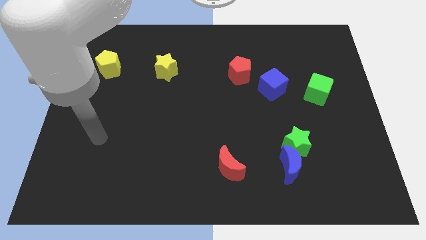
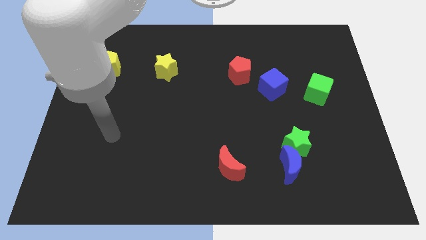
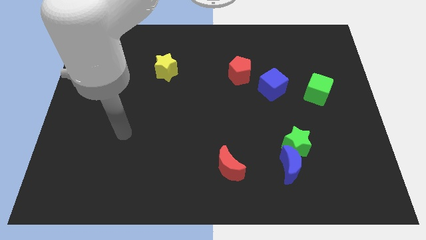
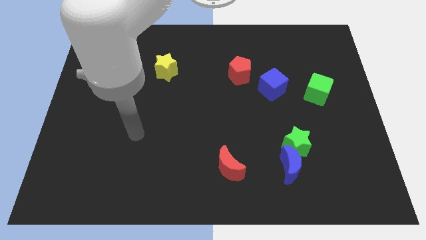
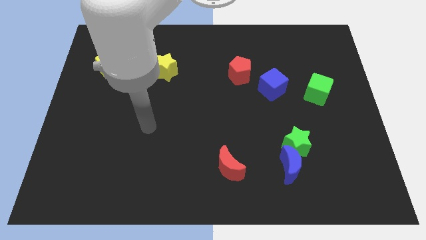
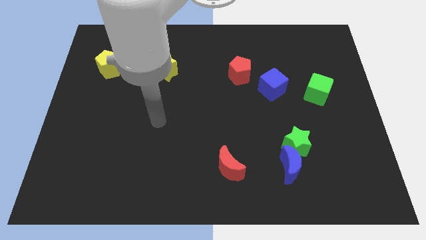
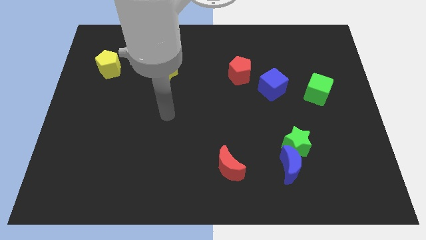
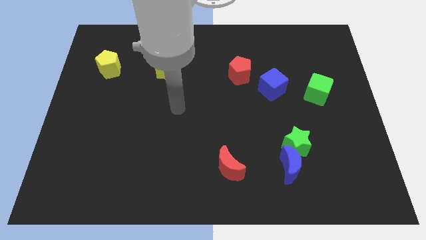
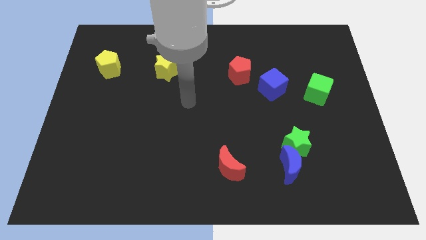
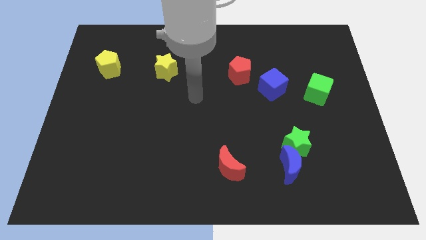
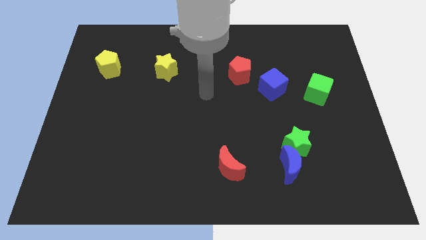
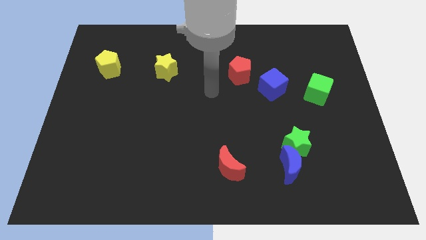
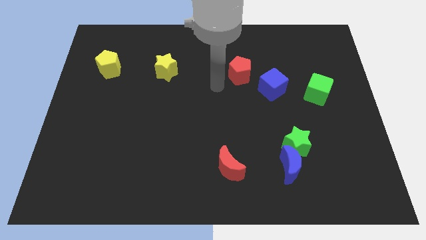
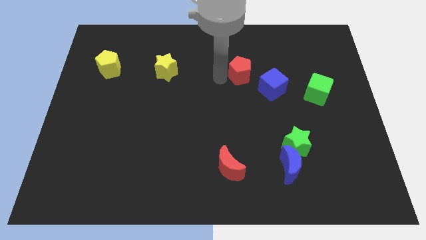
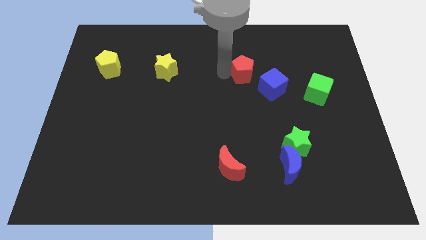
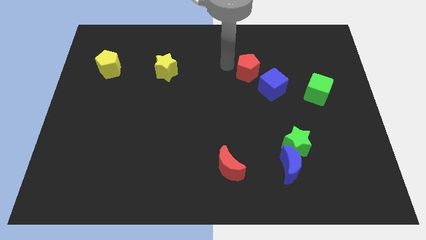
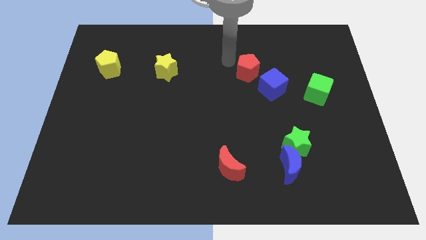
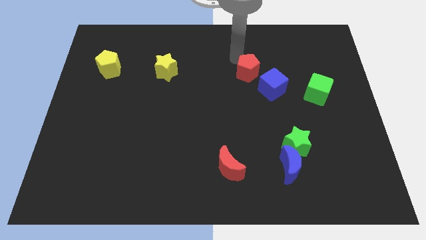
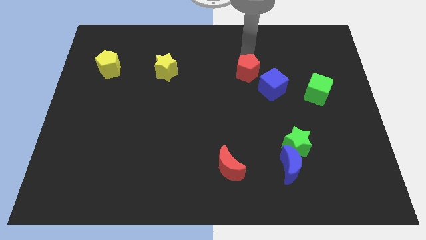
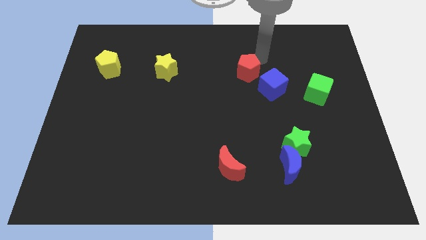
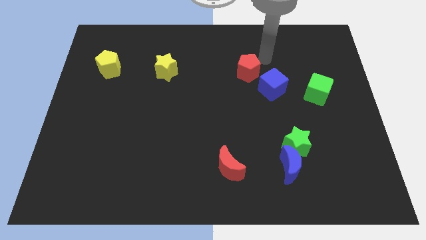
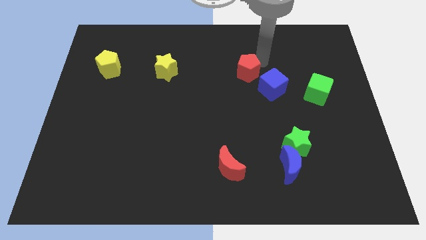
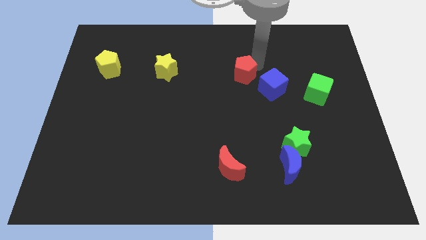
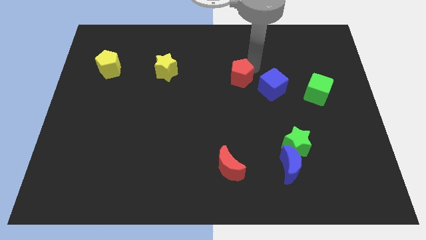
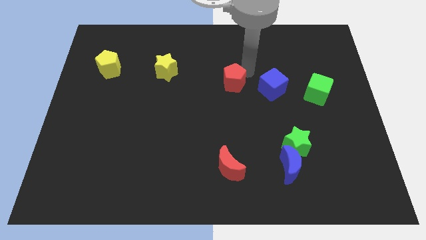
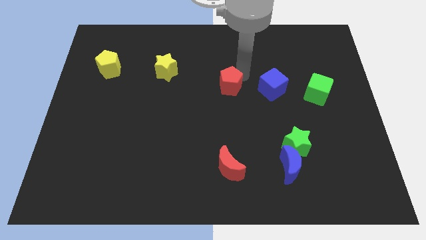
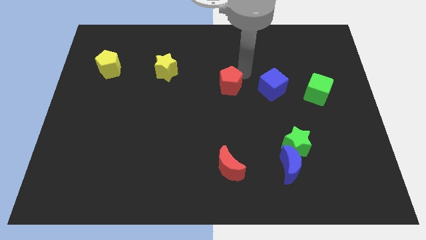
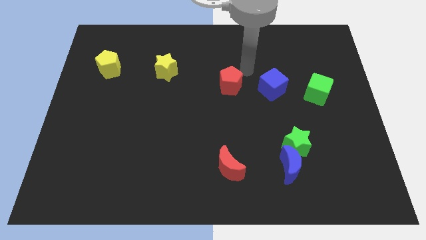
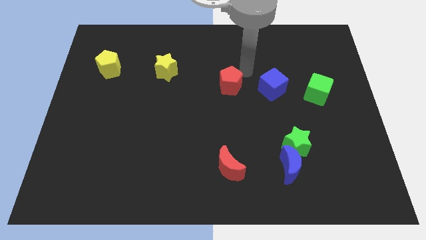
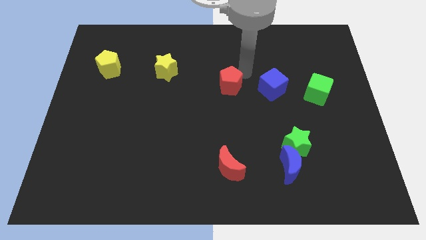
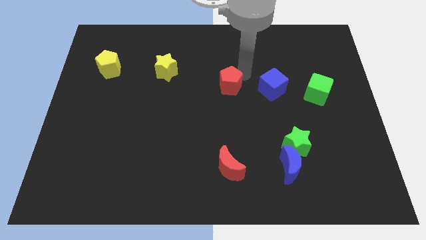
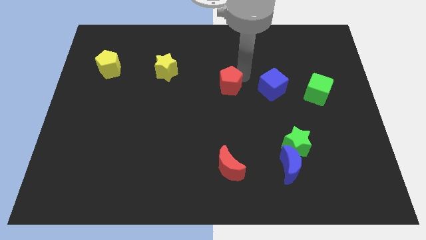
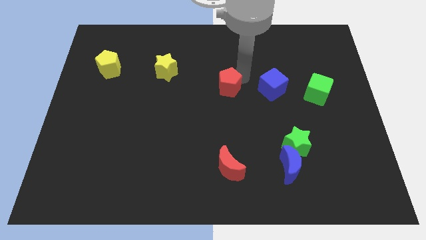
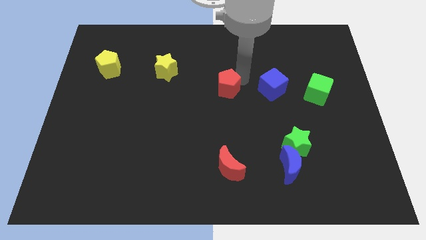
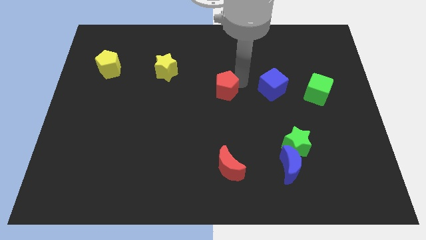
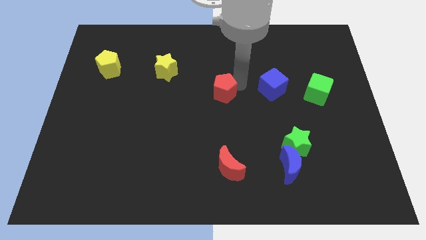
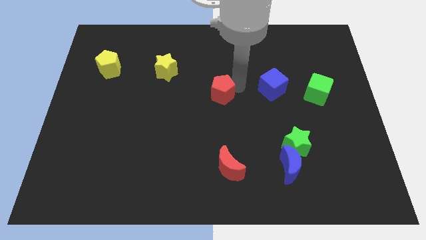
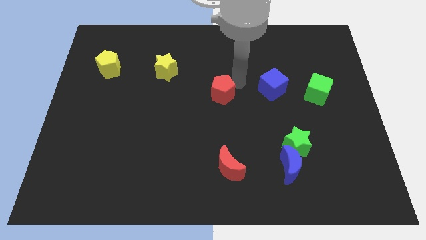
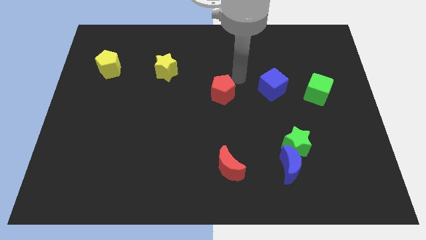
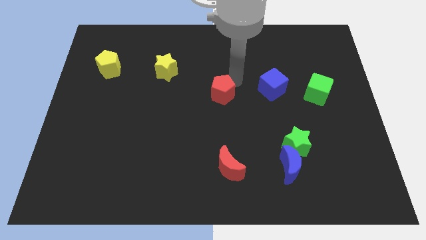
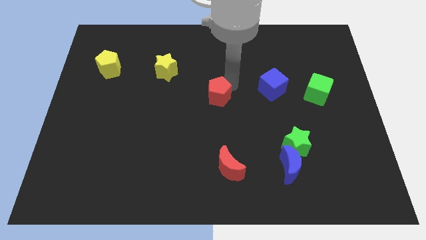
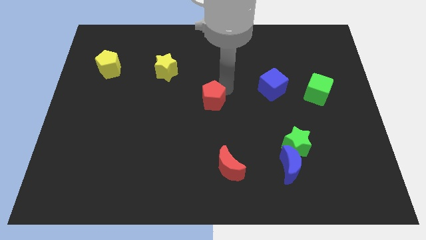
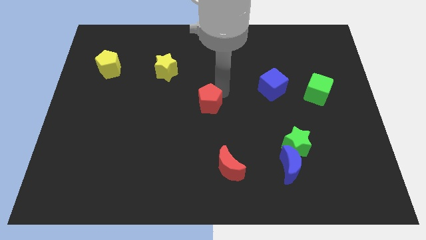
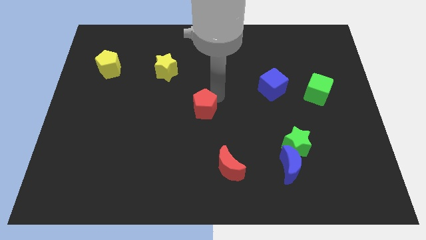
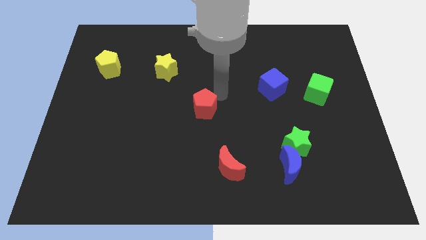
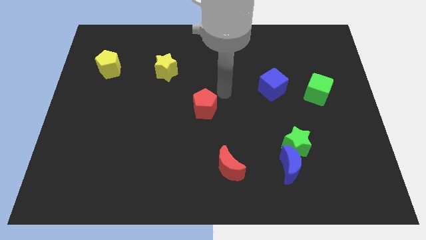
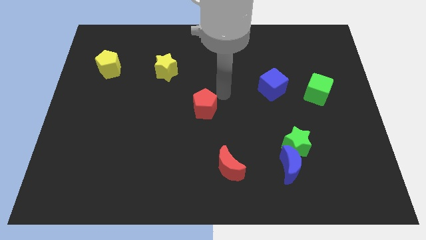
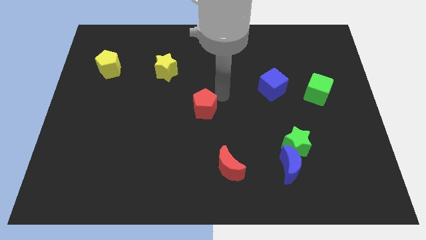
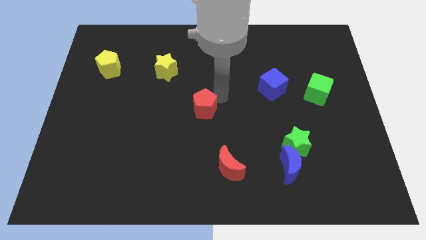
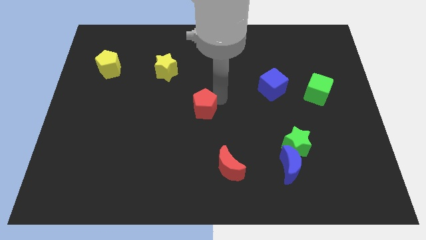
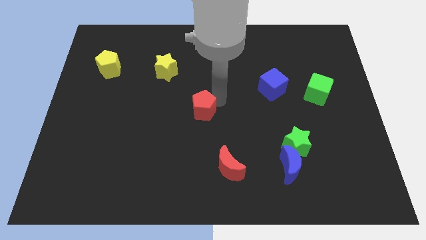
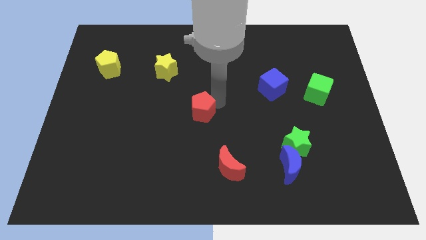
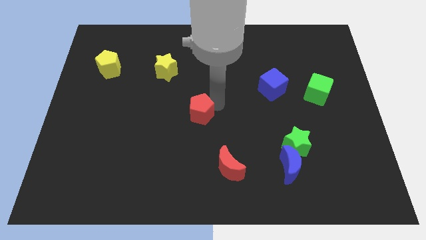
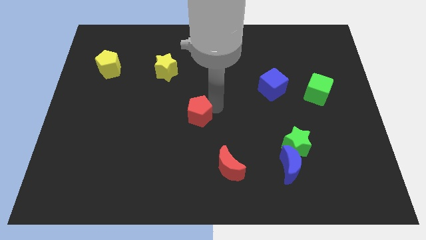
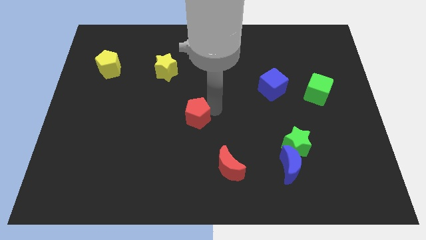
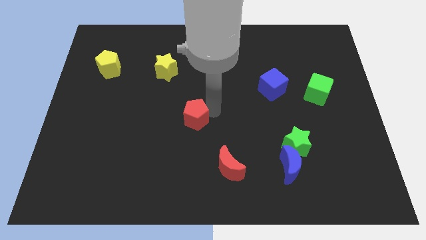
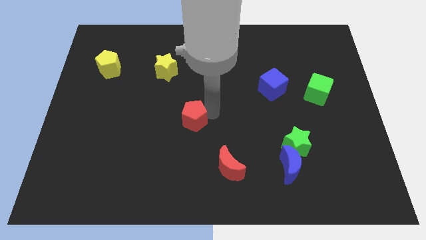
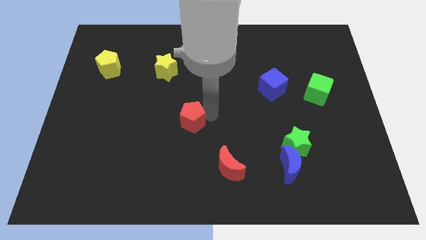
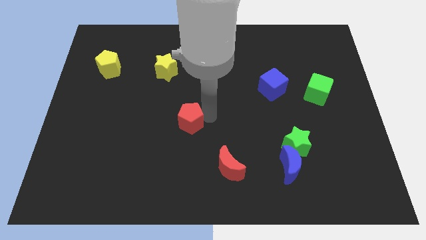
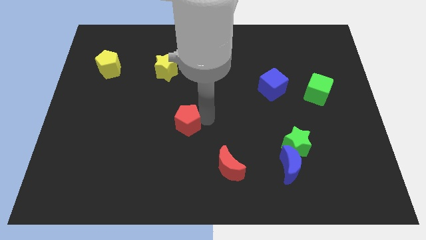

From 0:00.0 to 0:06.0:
move the red pentagon downwards and to the left diagonally

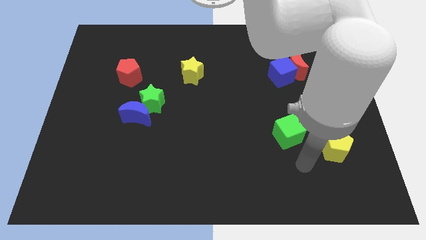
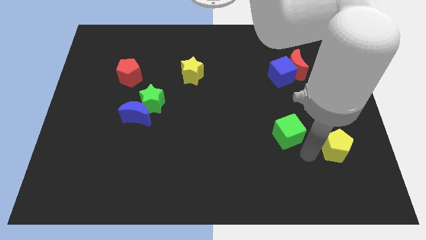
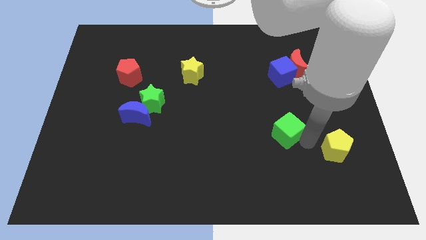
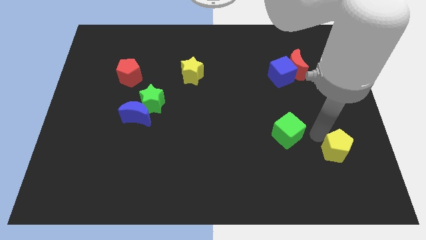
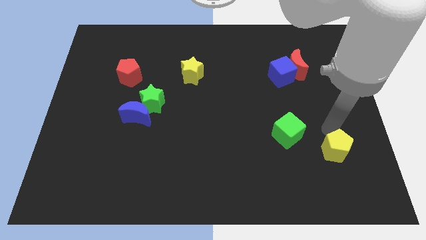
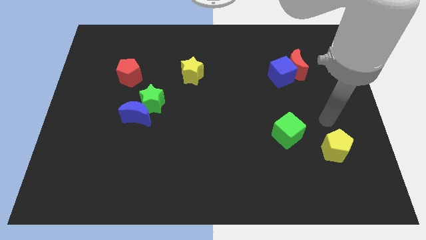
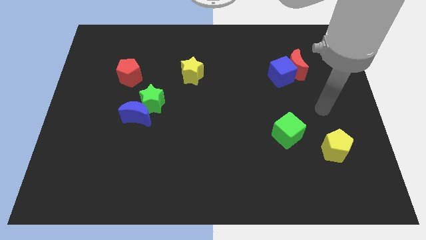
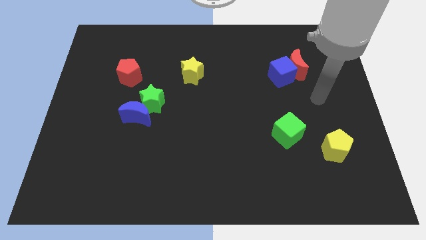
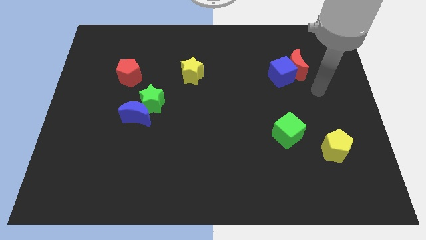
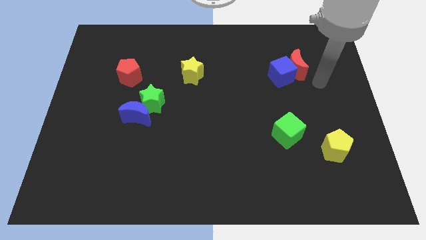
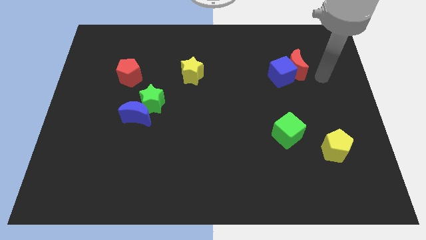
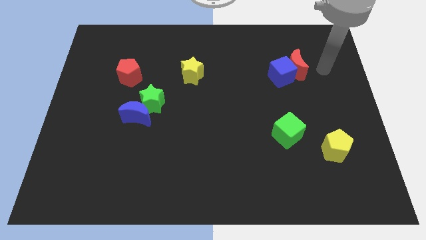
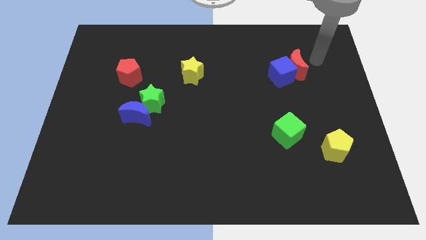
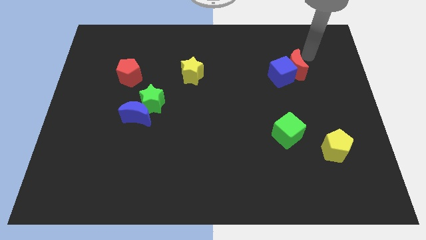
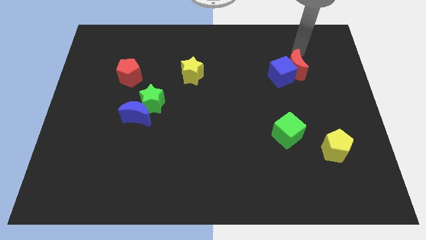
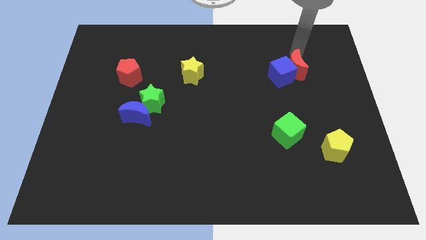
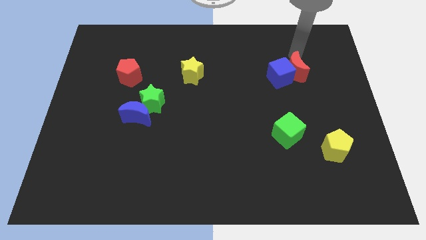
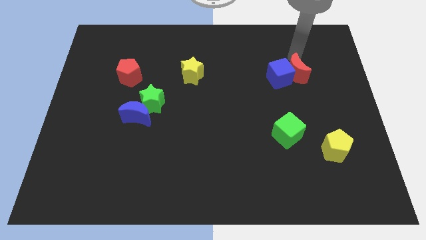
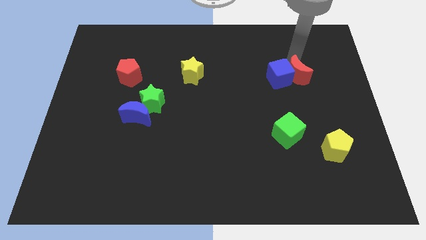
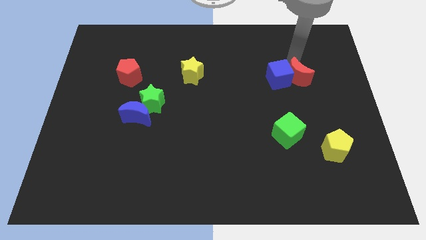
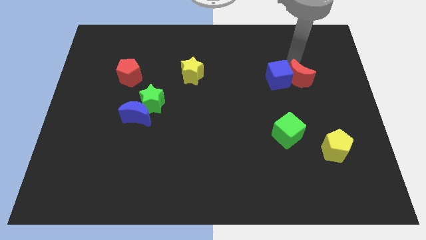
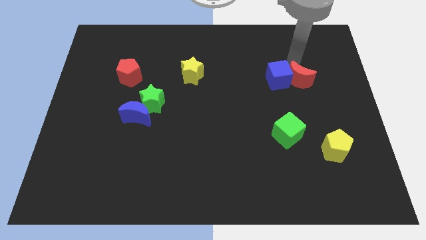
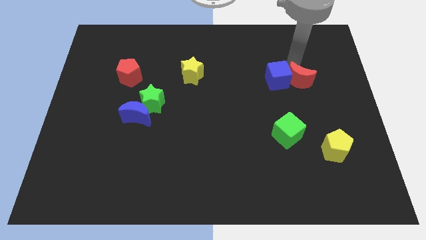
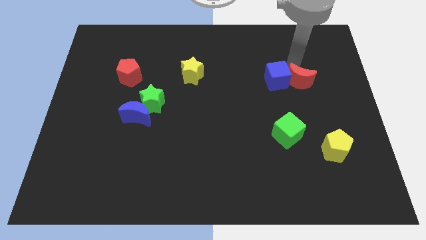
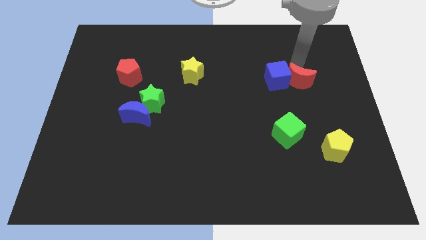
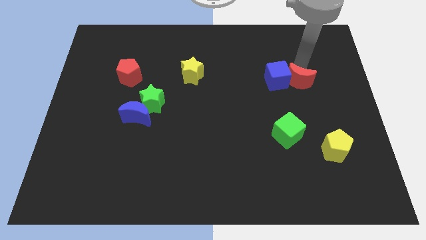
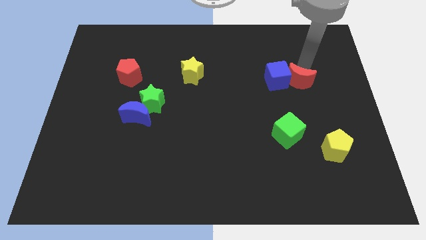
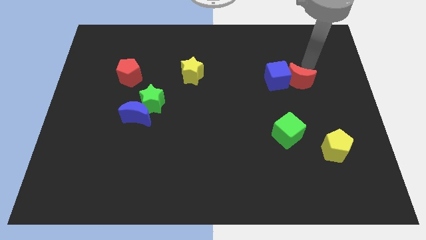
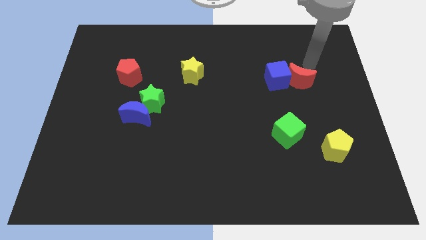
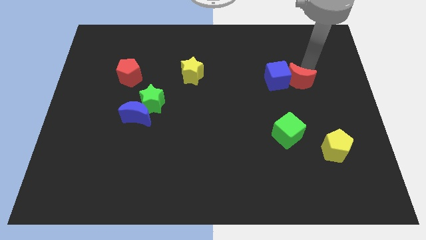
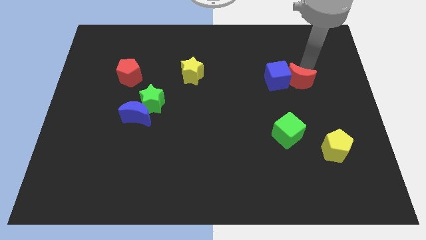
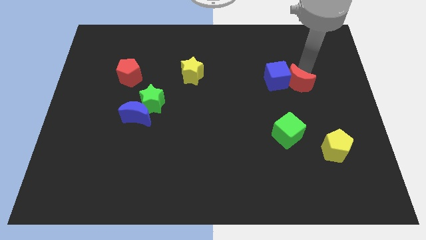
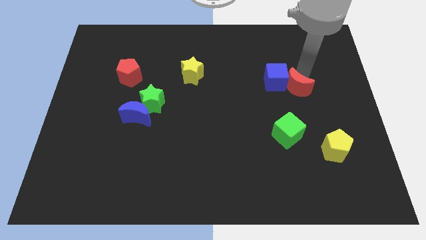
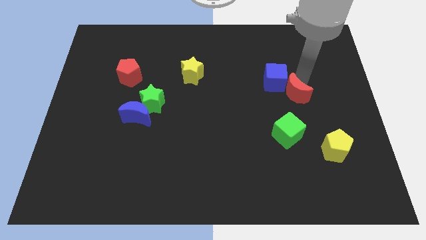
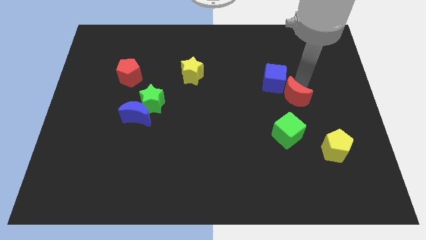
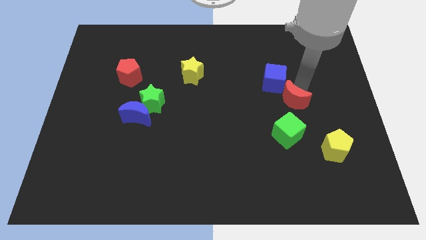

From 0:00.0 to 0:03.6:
slightly slide the red moon downwards and then left
